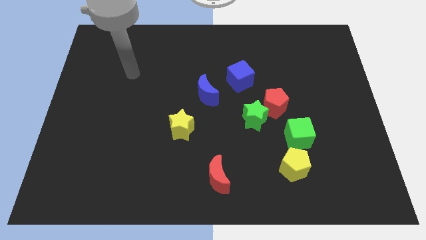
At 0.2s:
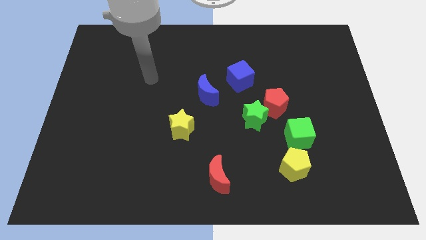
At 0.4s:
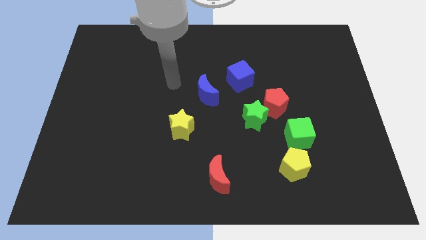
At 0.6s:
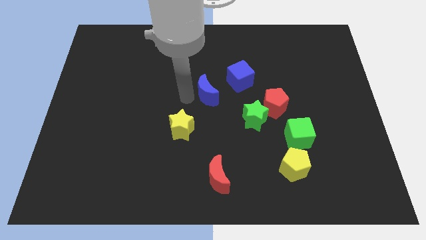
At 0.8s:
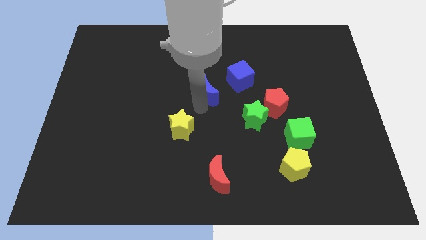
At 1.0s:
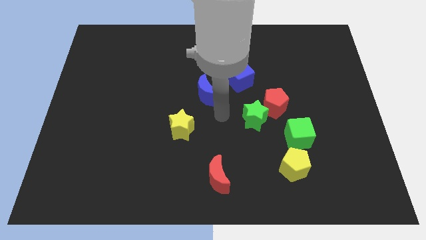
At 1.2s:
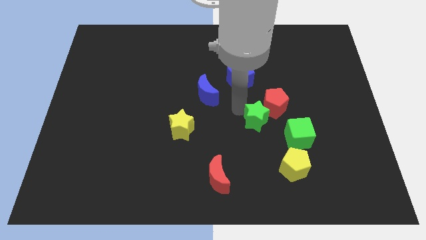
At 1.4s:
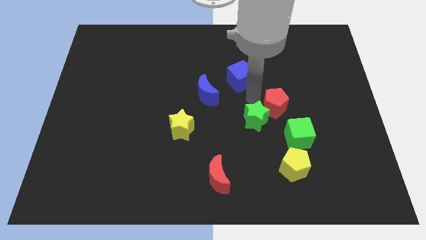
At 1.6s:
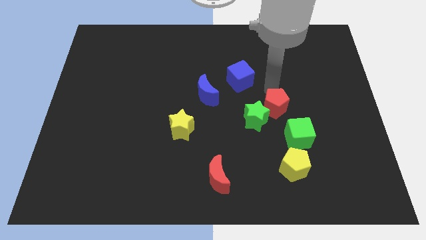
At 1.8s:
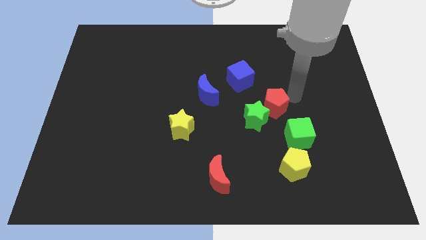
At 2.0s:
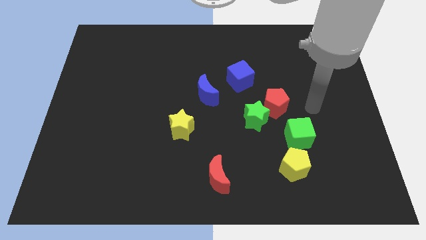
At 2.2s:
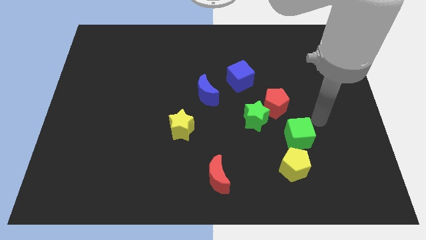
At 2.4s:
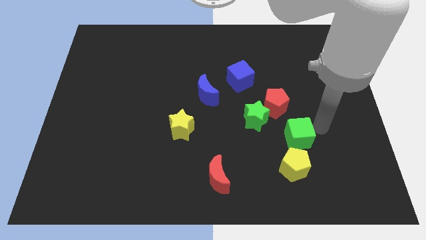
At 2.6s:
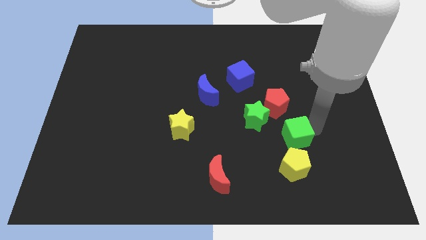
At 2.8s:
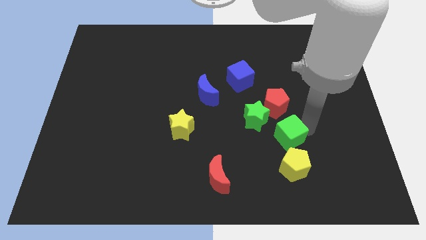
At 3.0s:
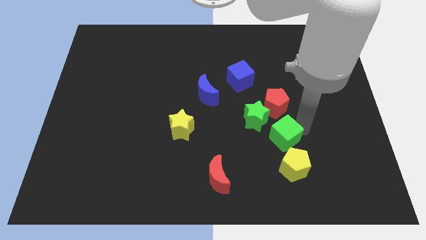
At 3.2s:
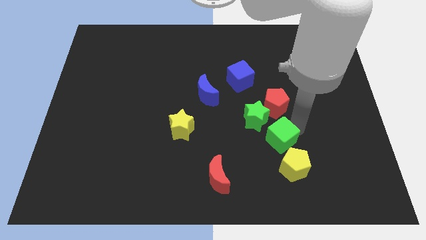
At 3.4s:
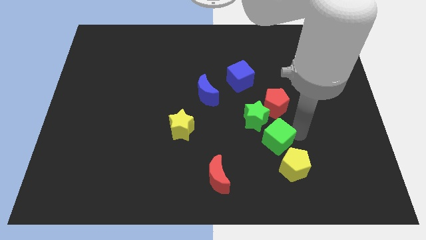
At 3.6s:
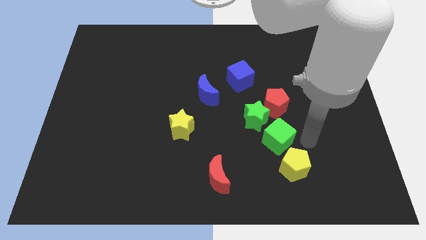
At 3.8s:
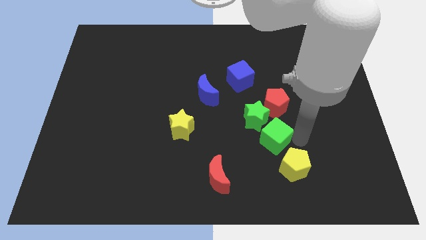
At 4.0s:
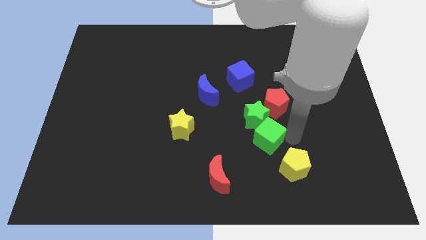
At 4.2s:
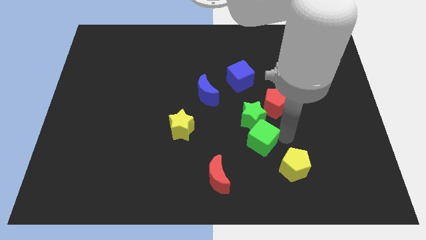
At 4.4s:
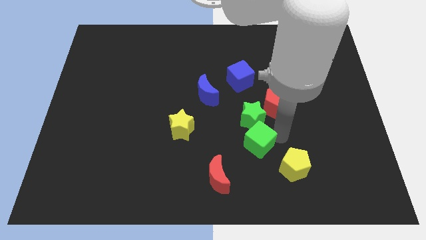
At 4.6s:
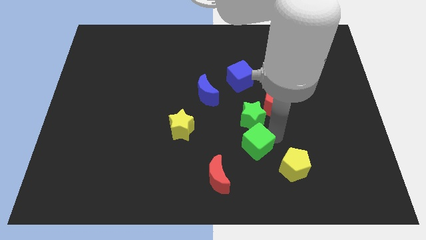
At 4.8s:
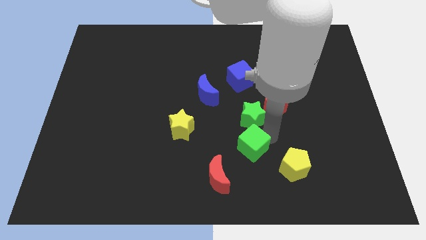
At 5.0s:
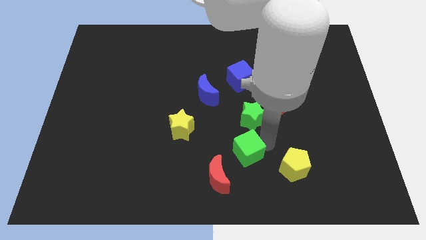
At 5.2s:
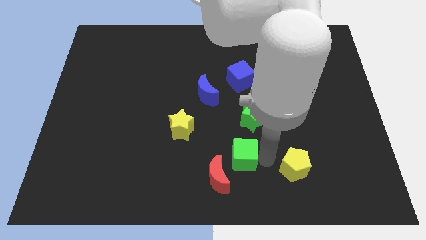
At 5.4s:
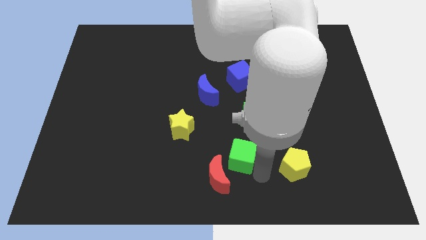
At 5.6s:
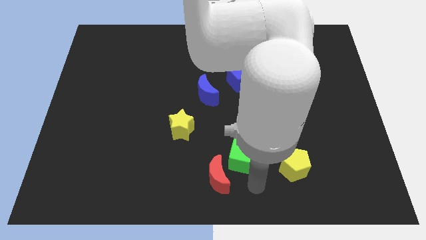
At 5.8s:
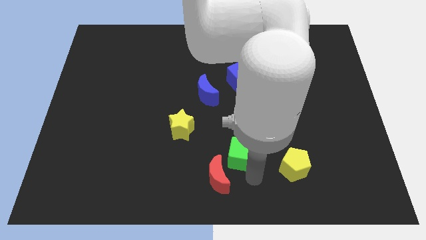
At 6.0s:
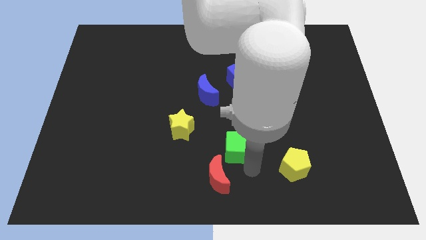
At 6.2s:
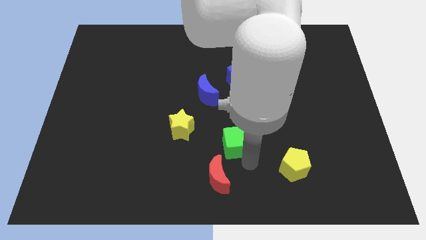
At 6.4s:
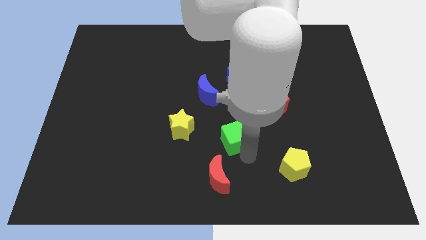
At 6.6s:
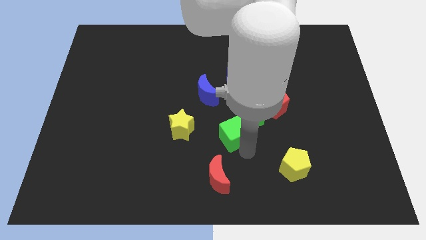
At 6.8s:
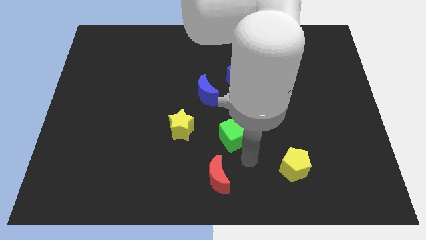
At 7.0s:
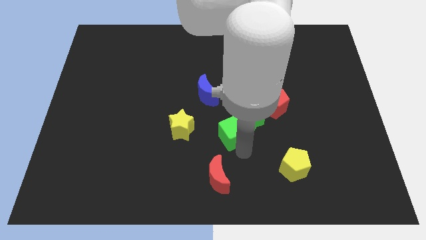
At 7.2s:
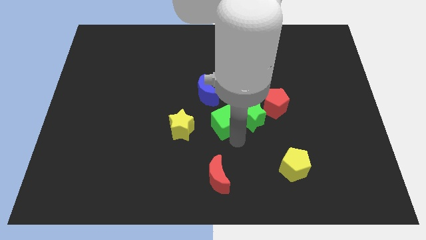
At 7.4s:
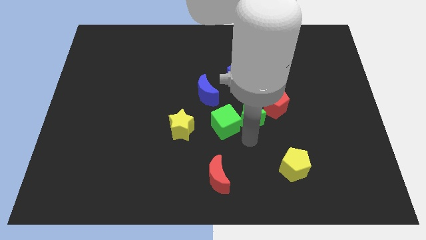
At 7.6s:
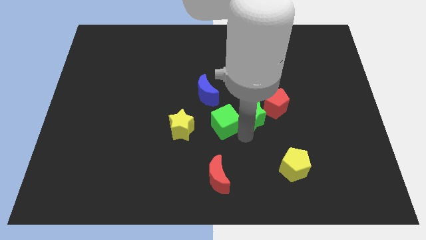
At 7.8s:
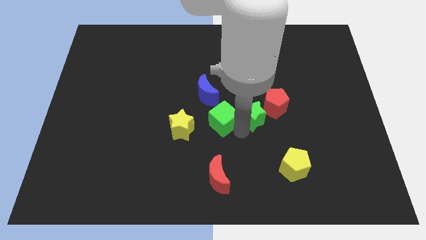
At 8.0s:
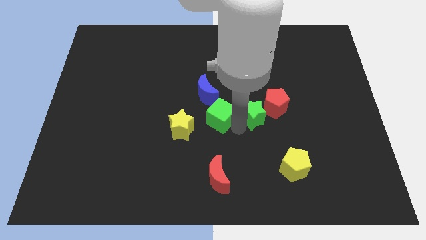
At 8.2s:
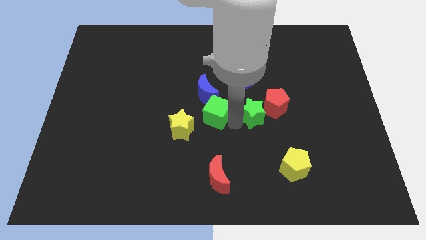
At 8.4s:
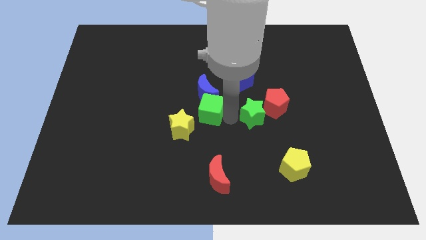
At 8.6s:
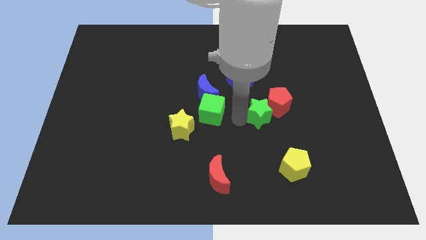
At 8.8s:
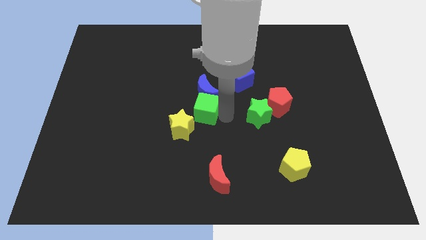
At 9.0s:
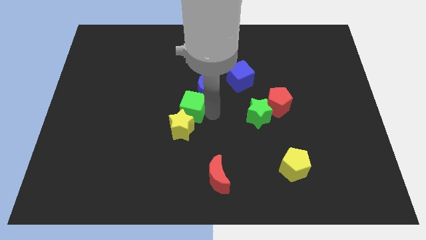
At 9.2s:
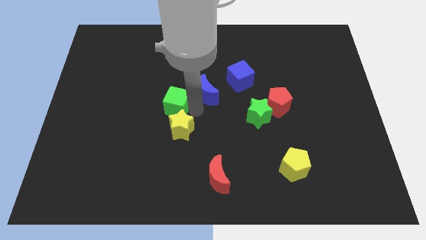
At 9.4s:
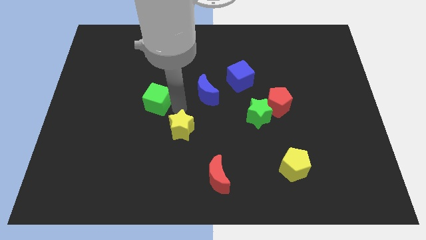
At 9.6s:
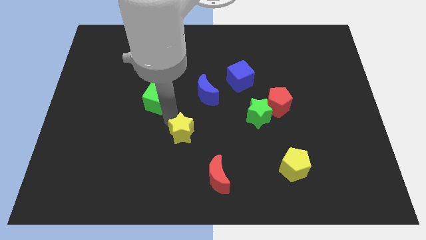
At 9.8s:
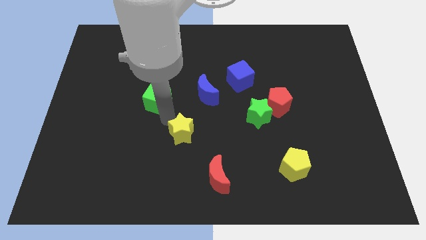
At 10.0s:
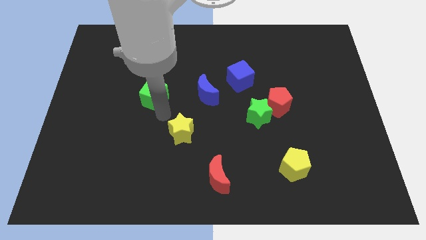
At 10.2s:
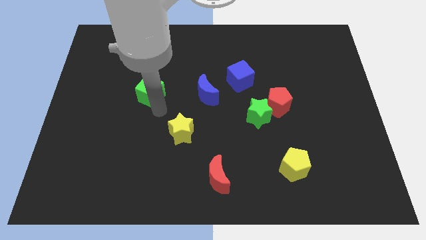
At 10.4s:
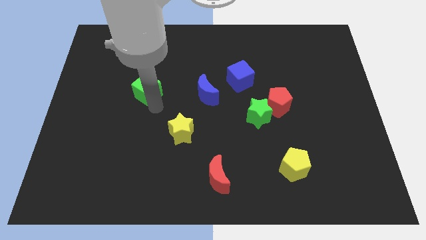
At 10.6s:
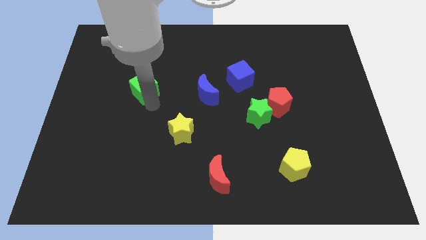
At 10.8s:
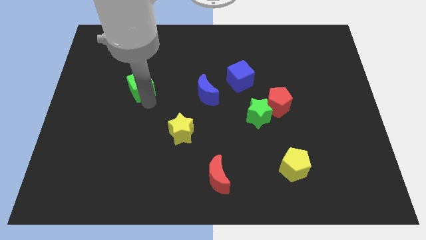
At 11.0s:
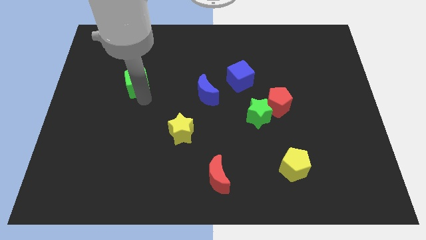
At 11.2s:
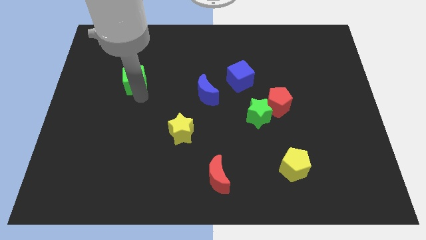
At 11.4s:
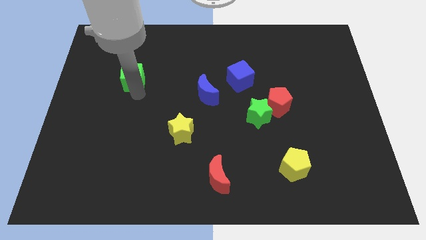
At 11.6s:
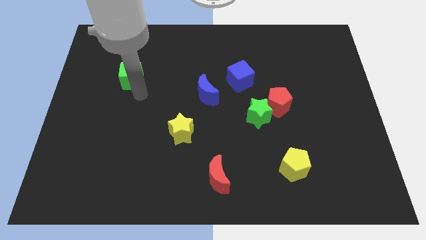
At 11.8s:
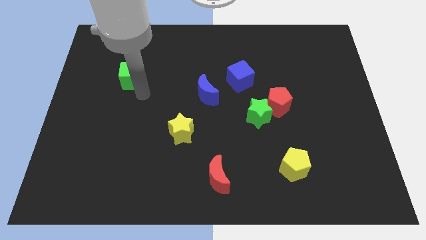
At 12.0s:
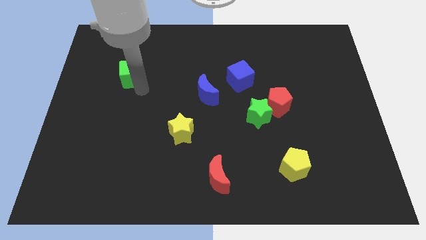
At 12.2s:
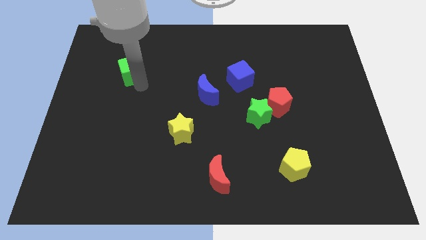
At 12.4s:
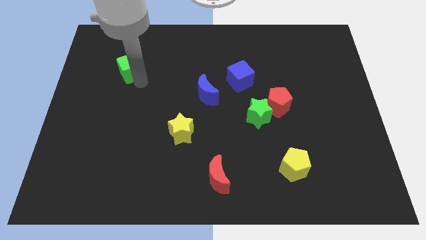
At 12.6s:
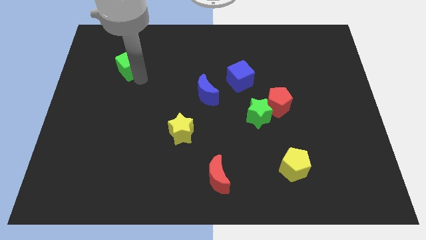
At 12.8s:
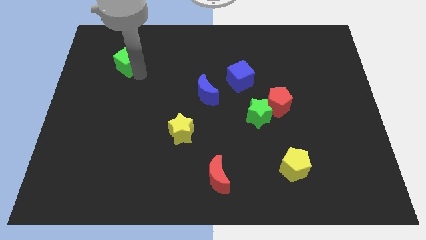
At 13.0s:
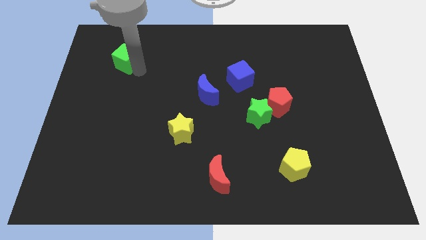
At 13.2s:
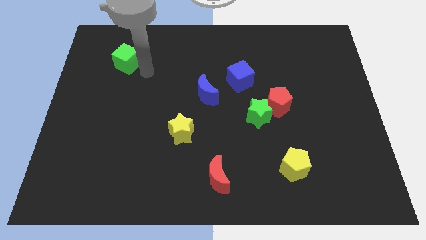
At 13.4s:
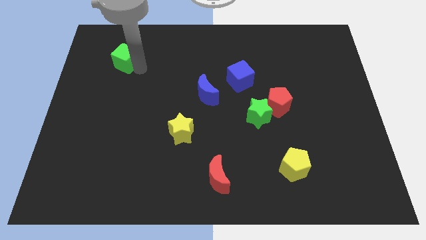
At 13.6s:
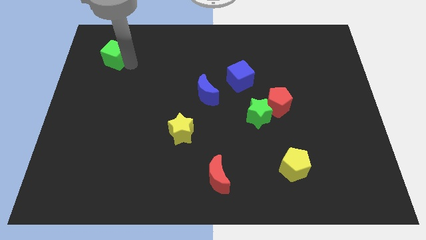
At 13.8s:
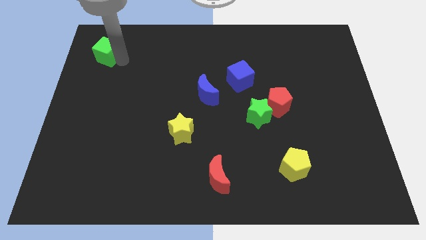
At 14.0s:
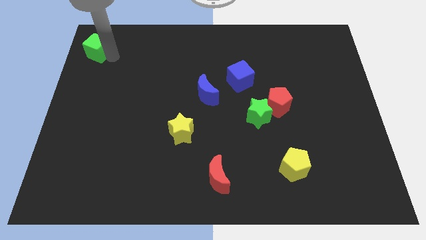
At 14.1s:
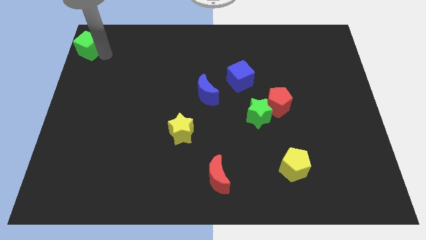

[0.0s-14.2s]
push the green cube to the top left corner
